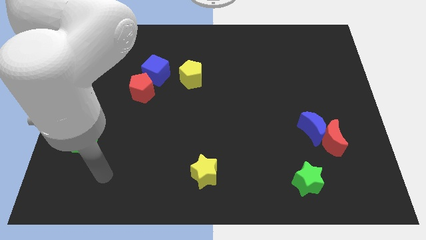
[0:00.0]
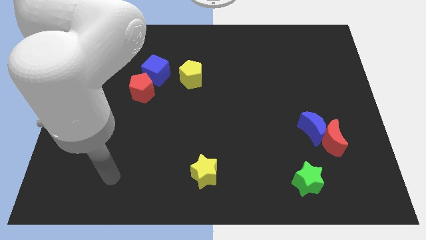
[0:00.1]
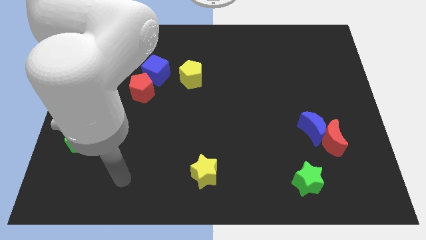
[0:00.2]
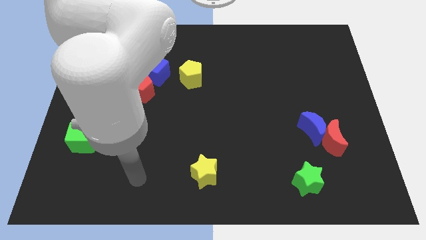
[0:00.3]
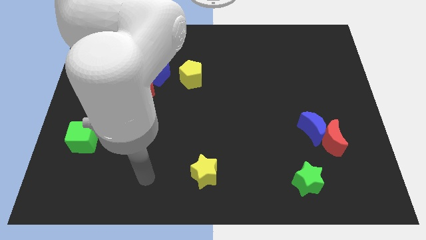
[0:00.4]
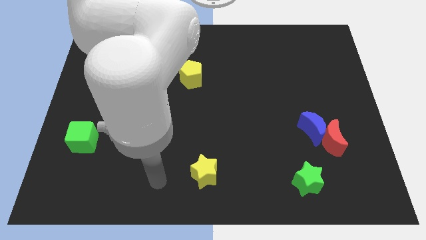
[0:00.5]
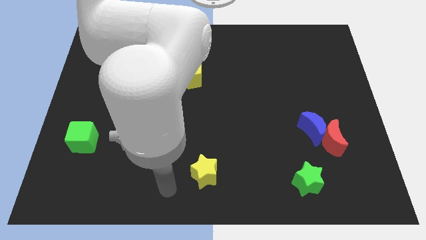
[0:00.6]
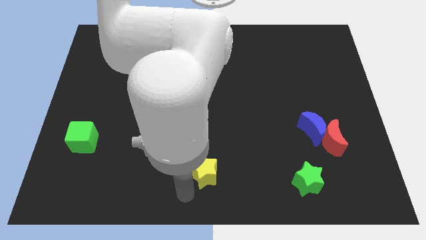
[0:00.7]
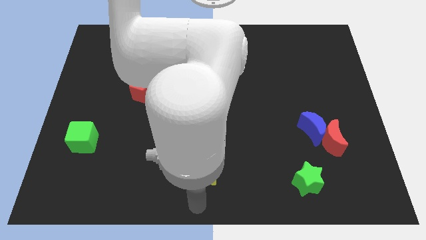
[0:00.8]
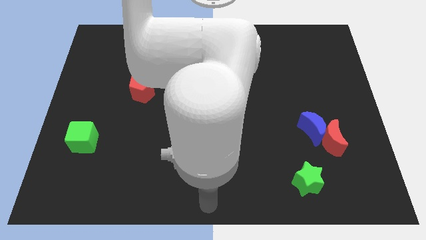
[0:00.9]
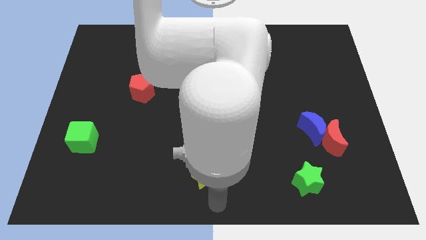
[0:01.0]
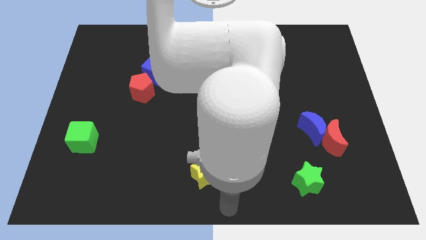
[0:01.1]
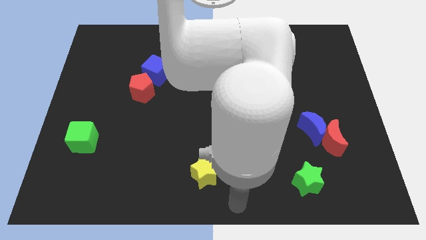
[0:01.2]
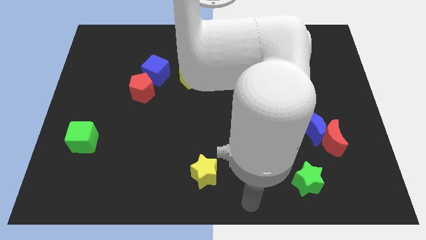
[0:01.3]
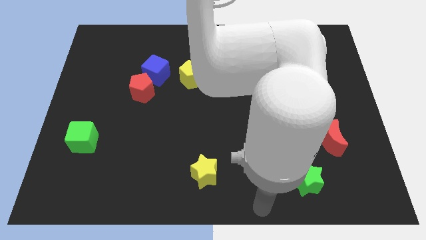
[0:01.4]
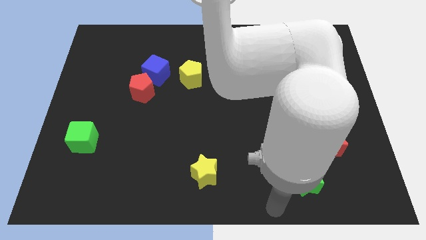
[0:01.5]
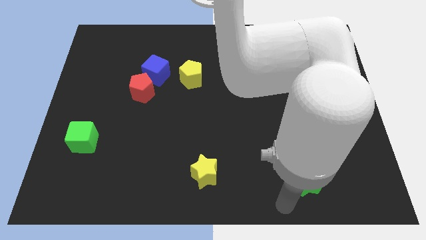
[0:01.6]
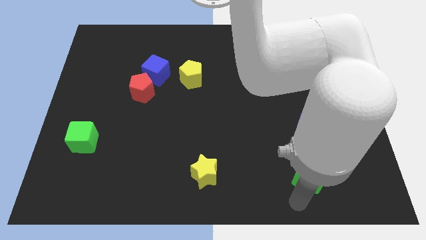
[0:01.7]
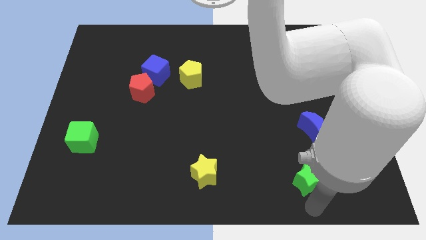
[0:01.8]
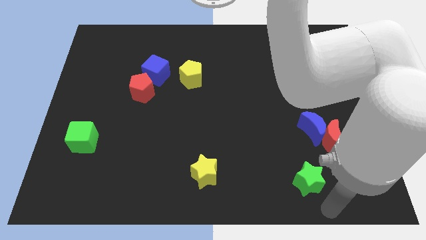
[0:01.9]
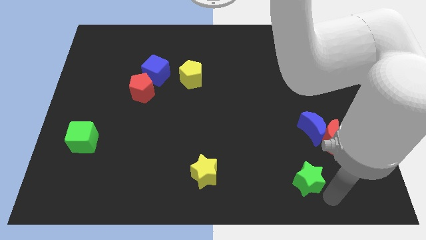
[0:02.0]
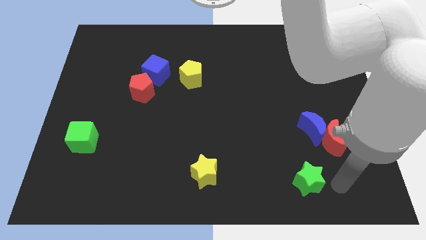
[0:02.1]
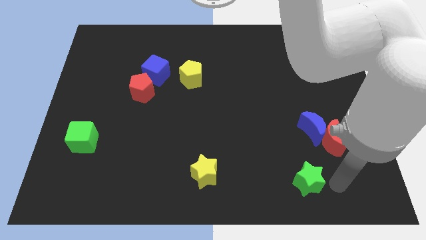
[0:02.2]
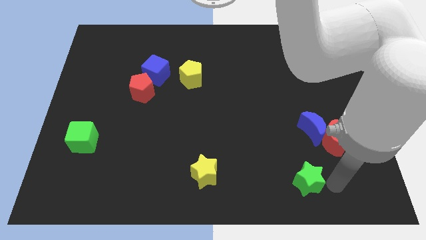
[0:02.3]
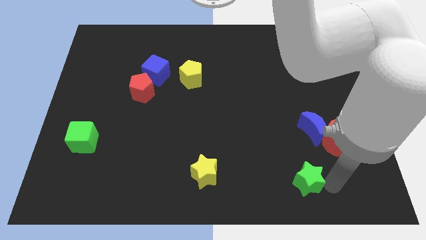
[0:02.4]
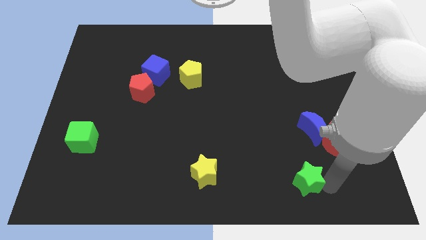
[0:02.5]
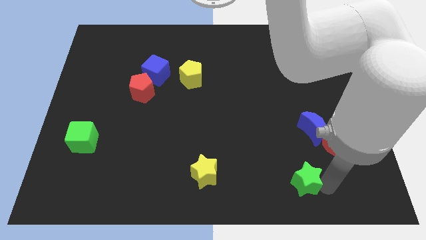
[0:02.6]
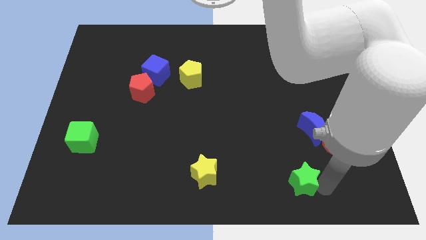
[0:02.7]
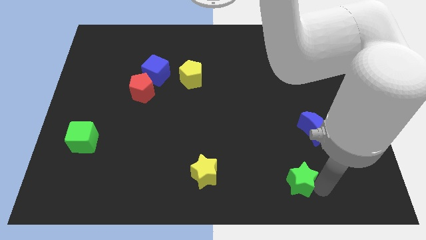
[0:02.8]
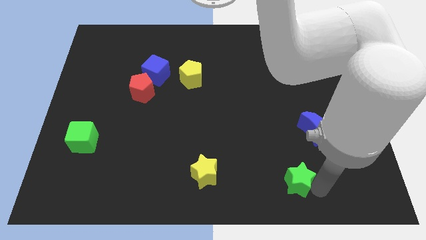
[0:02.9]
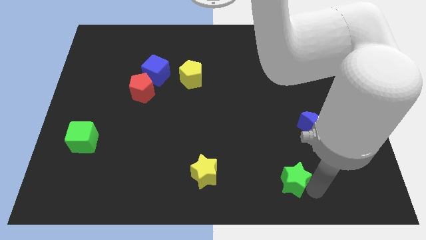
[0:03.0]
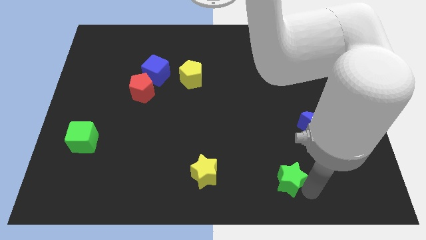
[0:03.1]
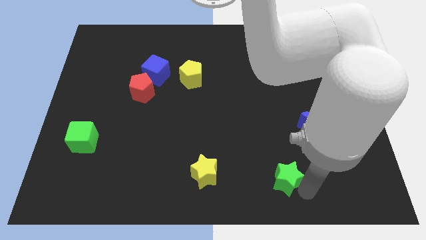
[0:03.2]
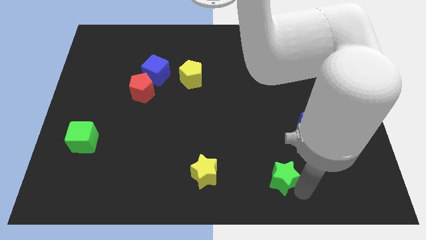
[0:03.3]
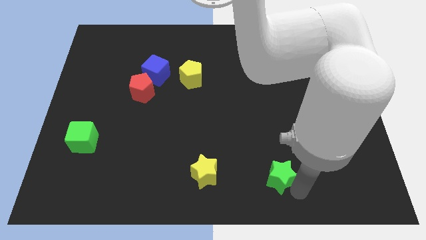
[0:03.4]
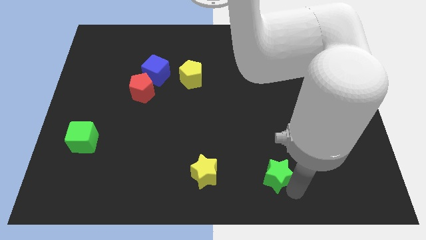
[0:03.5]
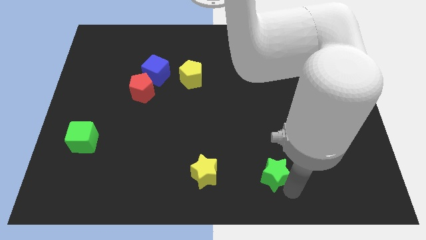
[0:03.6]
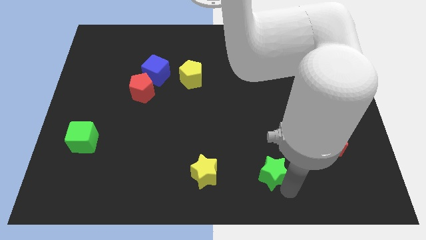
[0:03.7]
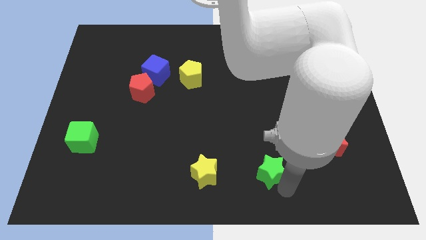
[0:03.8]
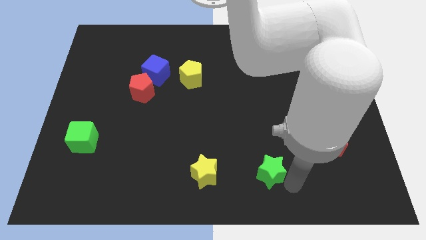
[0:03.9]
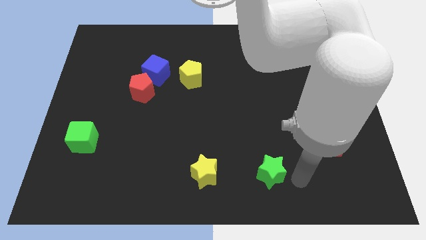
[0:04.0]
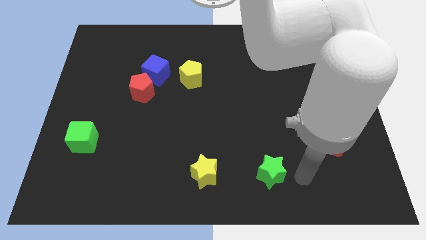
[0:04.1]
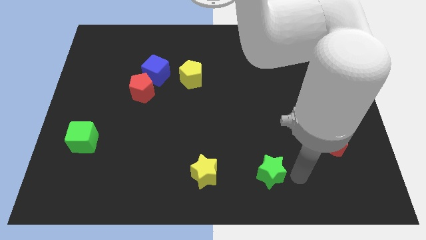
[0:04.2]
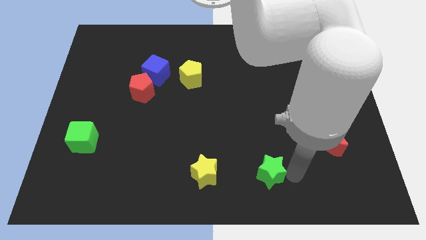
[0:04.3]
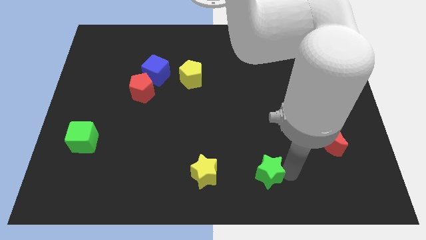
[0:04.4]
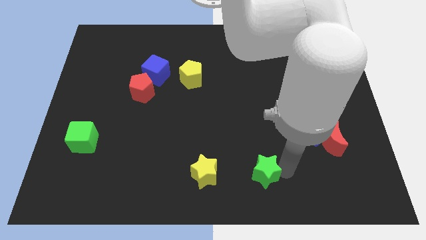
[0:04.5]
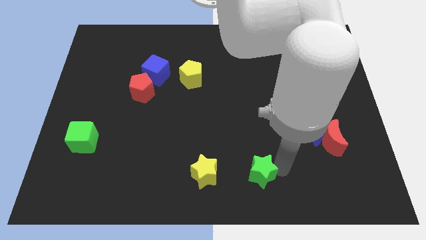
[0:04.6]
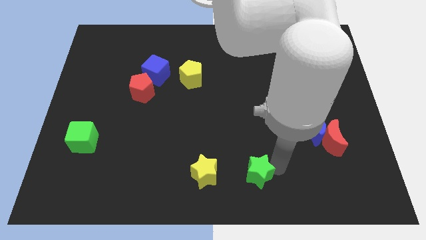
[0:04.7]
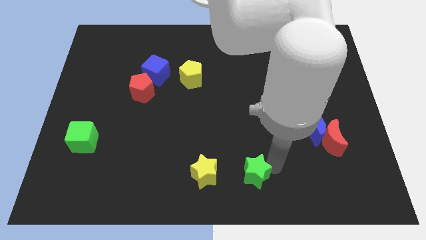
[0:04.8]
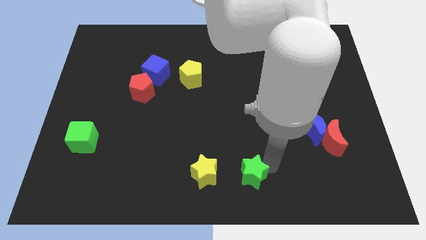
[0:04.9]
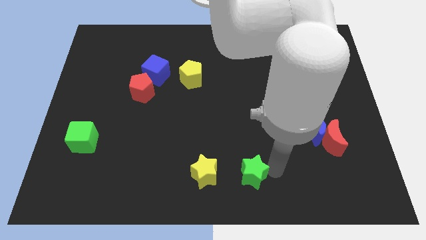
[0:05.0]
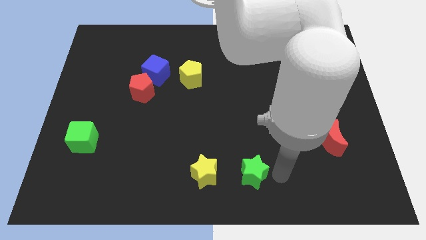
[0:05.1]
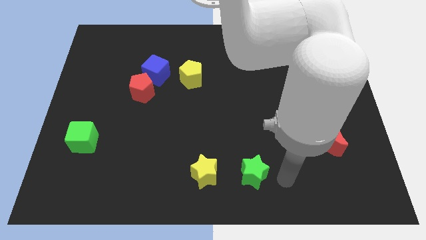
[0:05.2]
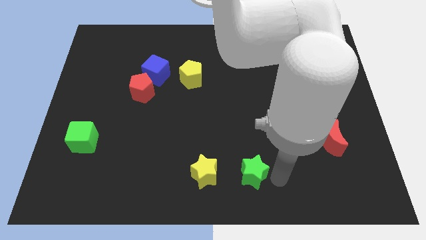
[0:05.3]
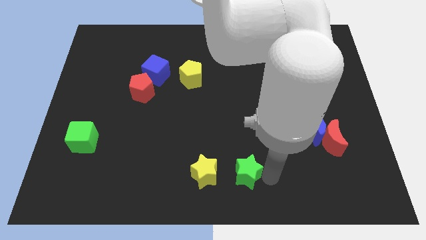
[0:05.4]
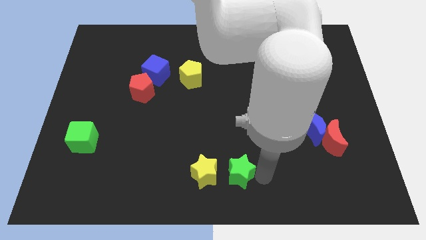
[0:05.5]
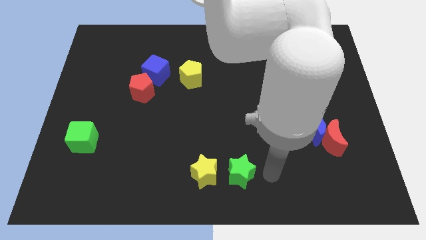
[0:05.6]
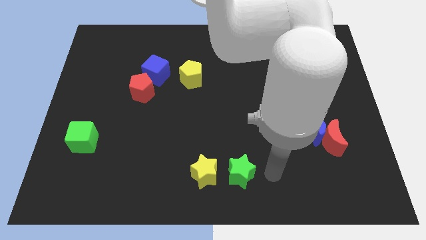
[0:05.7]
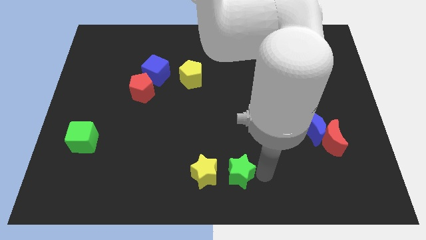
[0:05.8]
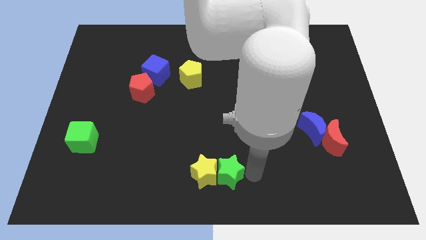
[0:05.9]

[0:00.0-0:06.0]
put the green star next to the yellow star

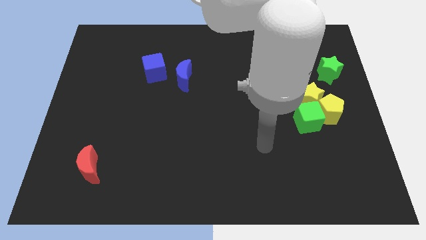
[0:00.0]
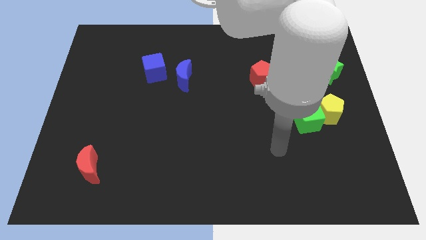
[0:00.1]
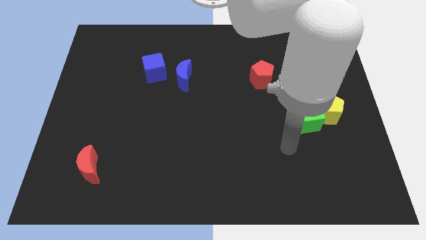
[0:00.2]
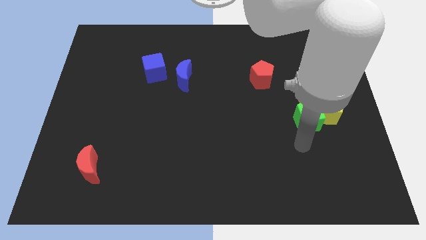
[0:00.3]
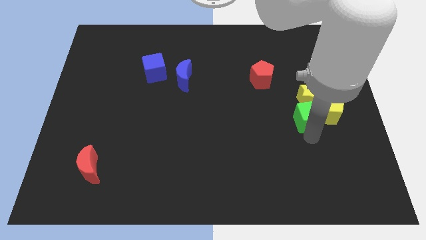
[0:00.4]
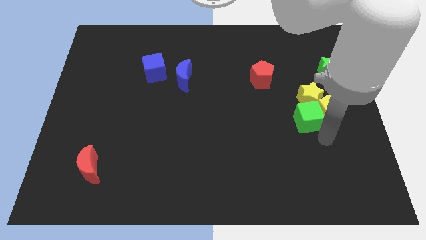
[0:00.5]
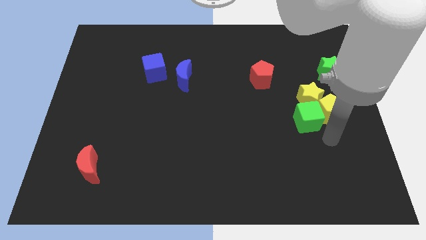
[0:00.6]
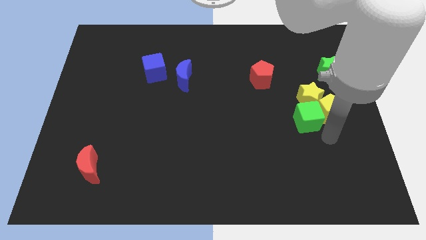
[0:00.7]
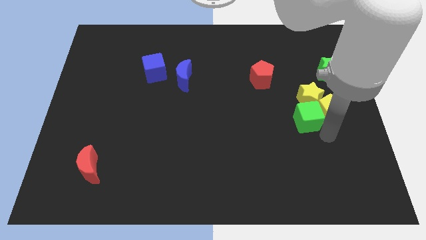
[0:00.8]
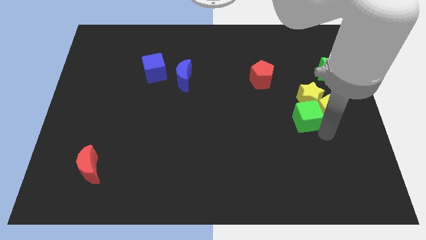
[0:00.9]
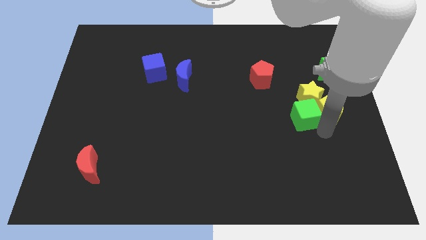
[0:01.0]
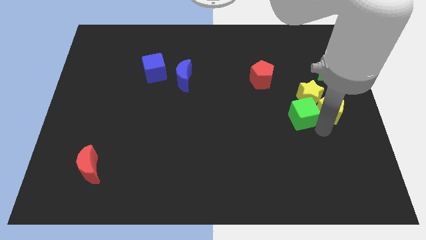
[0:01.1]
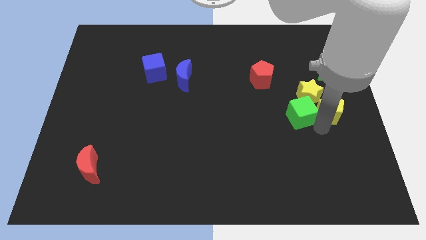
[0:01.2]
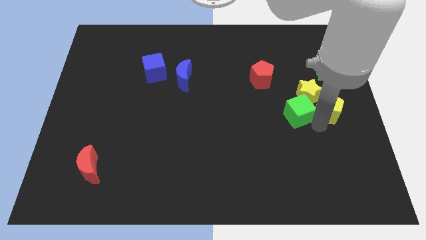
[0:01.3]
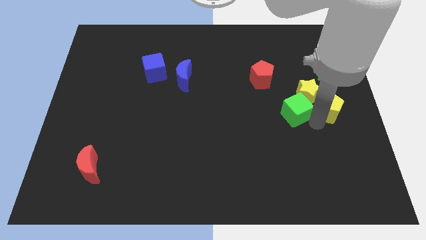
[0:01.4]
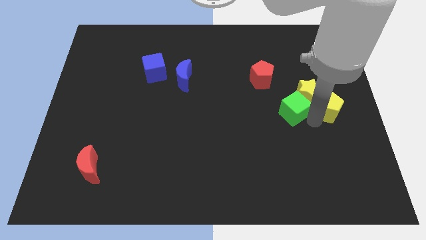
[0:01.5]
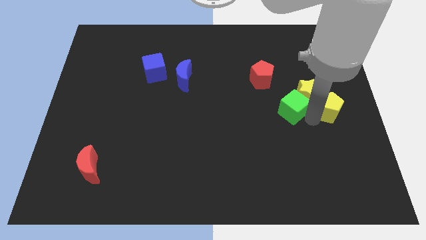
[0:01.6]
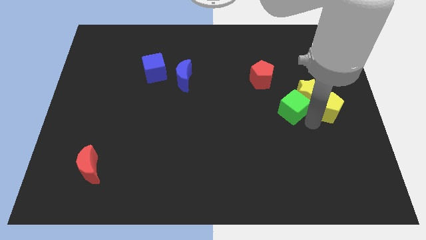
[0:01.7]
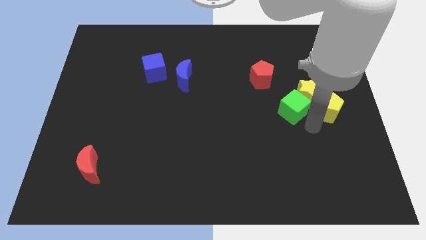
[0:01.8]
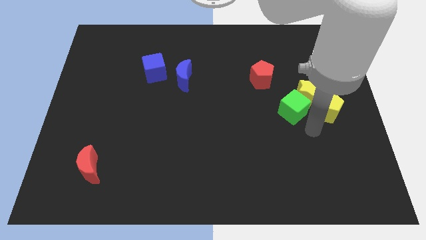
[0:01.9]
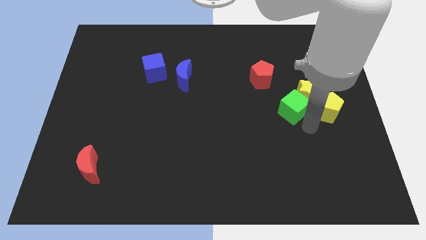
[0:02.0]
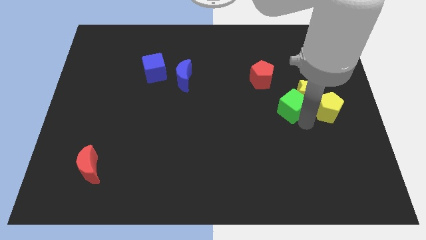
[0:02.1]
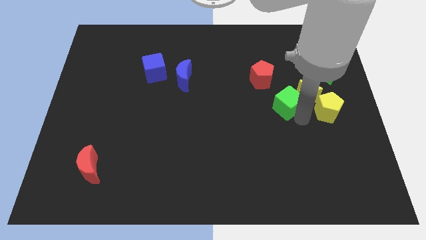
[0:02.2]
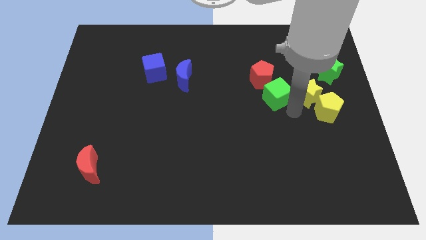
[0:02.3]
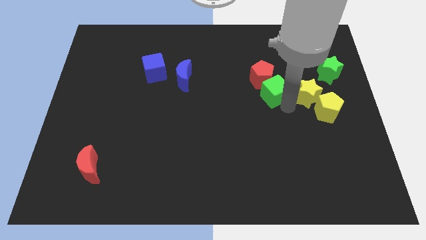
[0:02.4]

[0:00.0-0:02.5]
move the green cube to the red pentagon

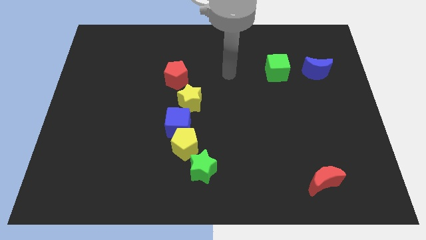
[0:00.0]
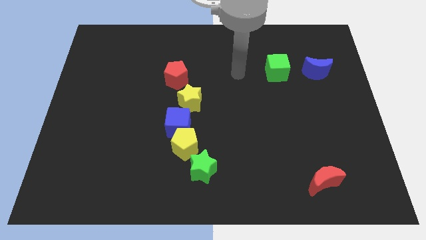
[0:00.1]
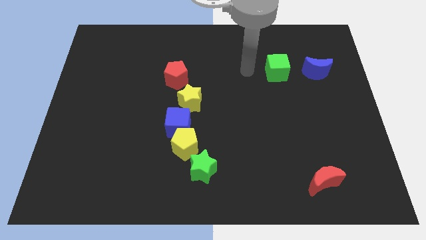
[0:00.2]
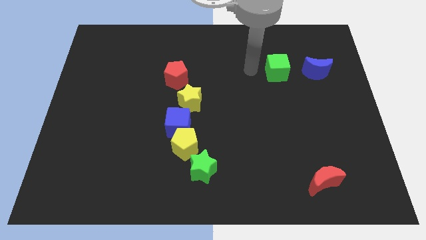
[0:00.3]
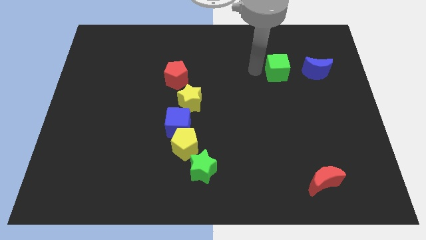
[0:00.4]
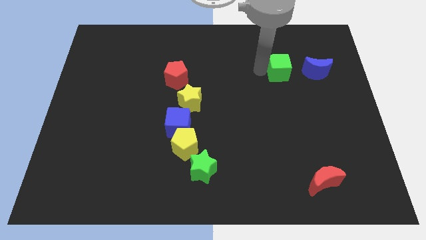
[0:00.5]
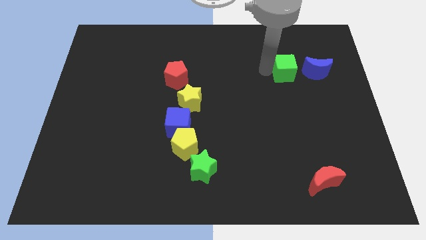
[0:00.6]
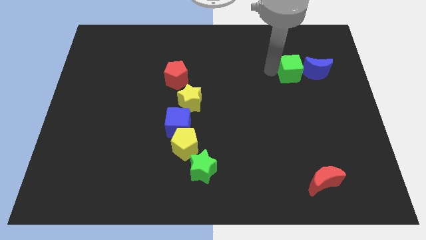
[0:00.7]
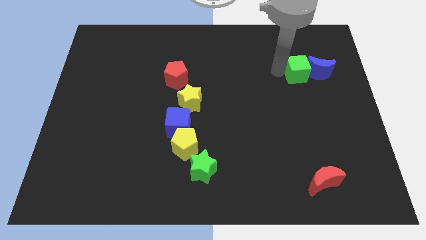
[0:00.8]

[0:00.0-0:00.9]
put the green cube towards the blue moon
